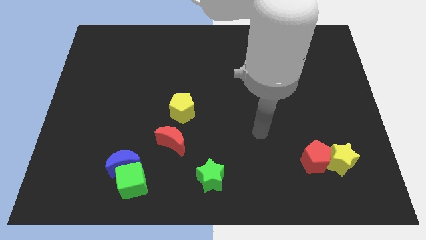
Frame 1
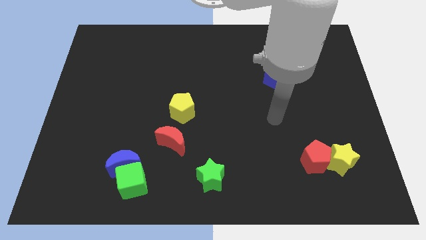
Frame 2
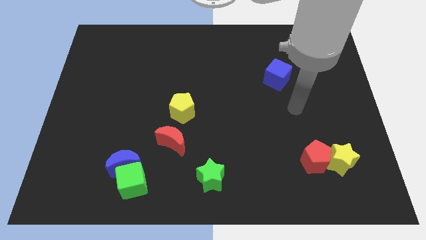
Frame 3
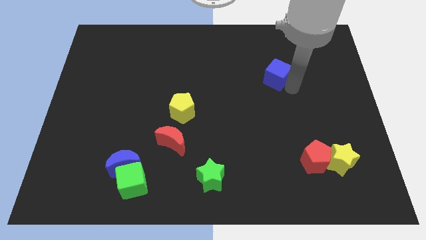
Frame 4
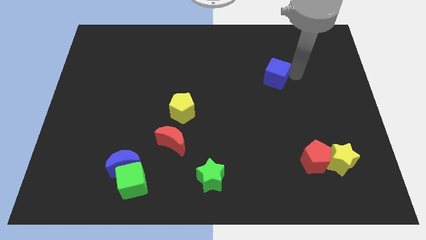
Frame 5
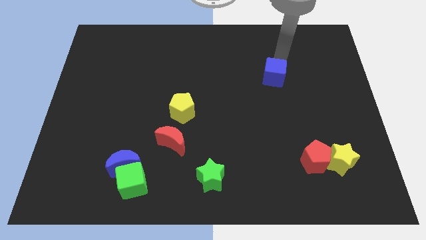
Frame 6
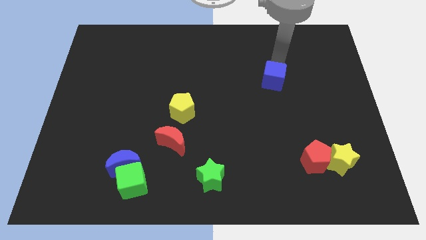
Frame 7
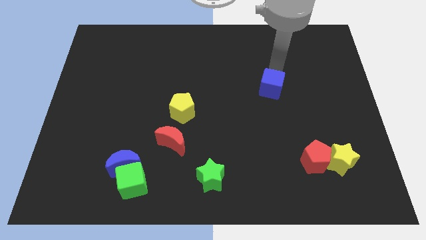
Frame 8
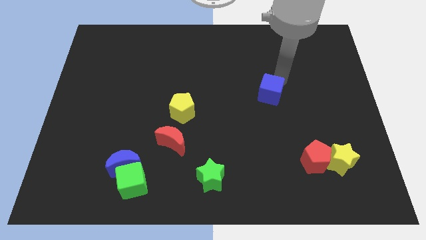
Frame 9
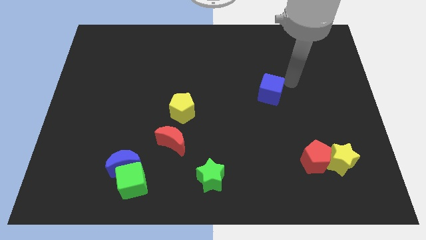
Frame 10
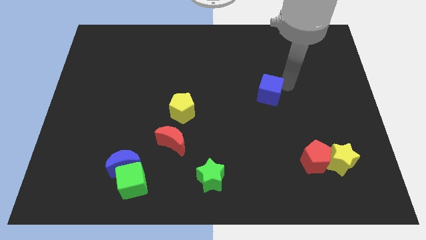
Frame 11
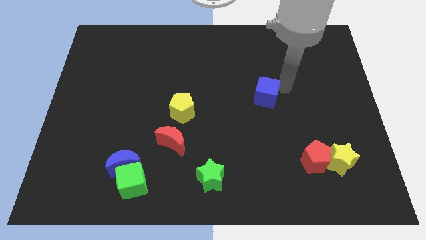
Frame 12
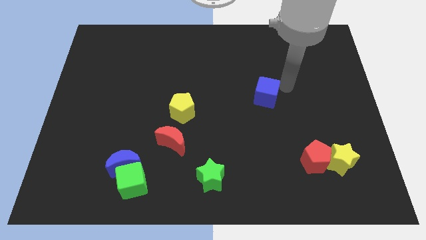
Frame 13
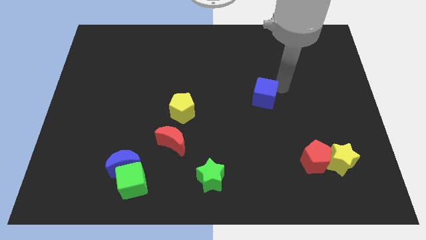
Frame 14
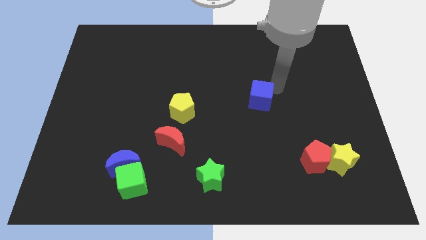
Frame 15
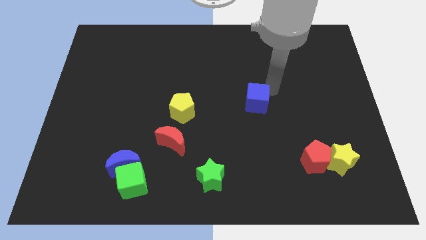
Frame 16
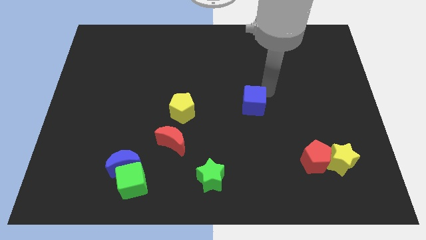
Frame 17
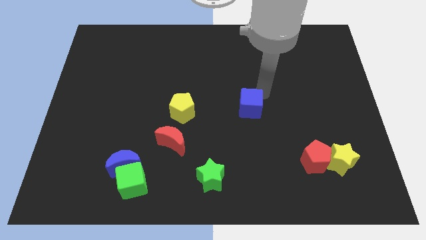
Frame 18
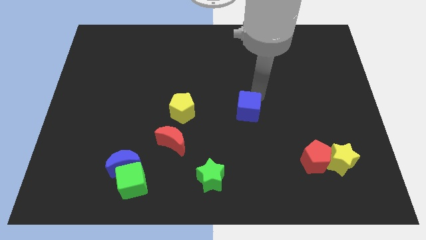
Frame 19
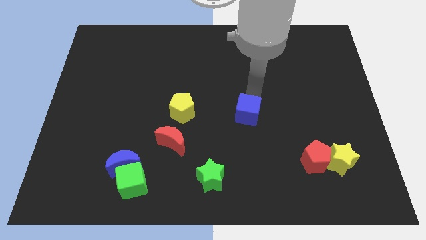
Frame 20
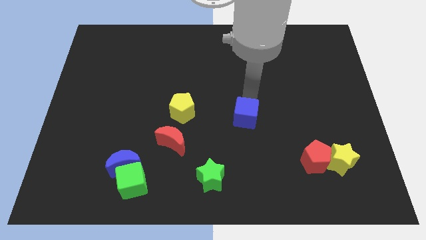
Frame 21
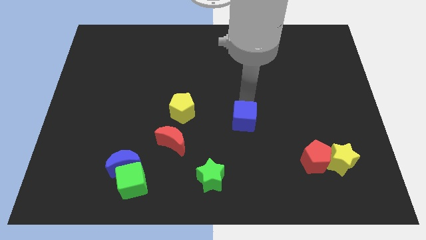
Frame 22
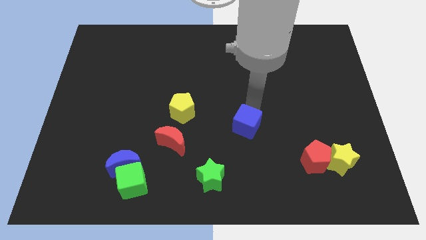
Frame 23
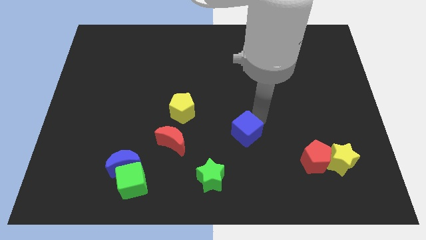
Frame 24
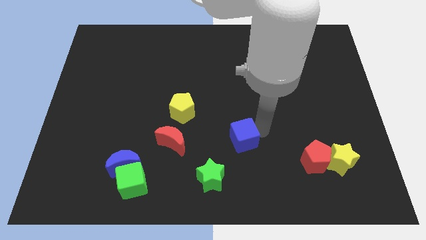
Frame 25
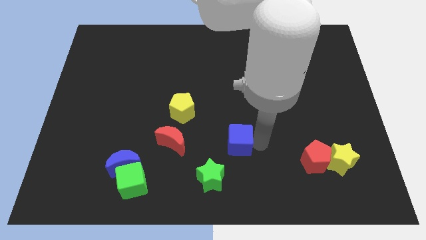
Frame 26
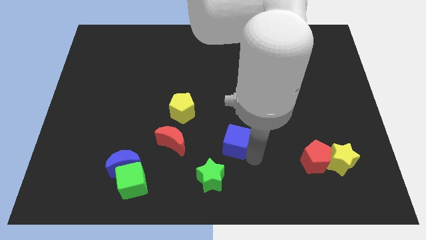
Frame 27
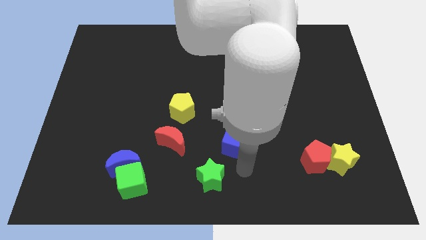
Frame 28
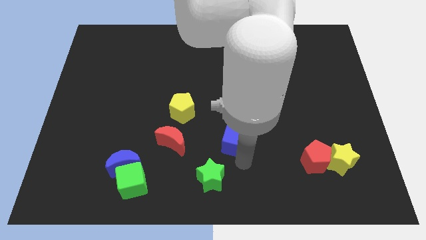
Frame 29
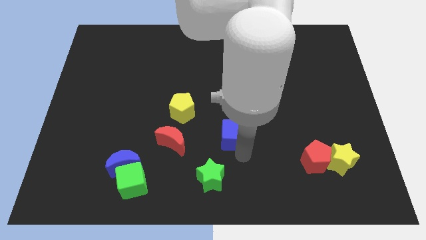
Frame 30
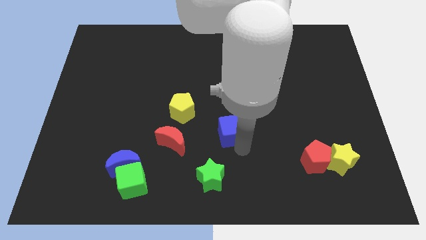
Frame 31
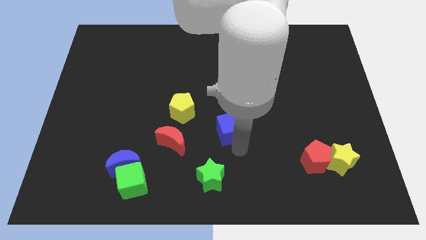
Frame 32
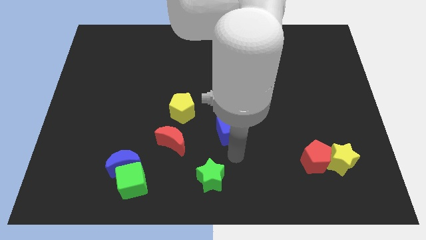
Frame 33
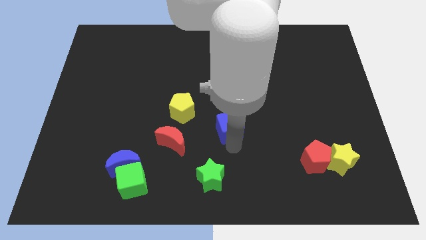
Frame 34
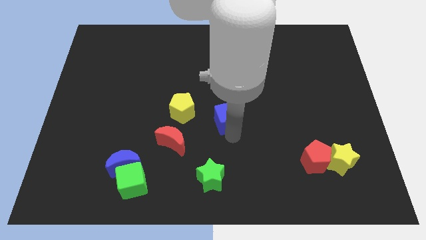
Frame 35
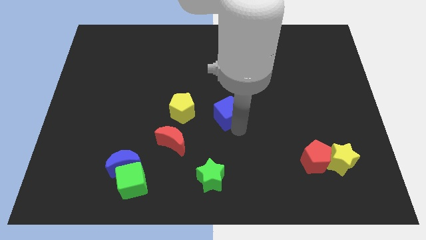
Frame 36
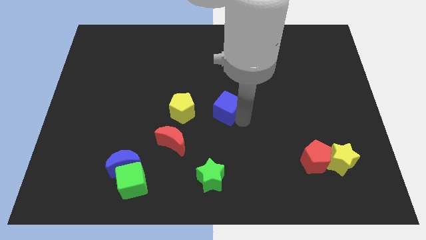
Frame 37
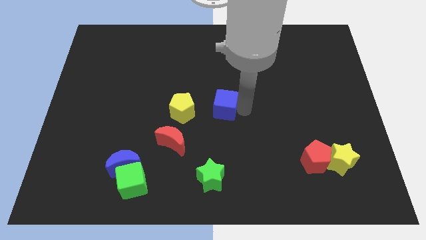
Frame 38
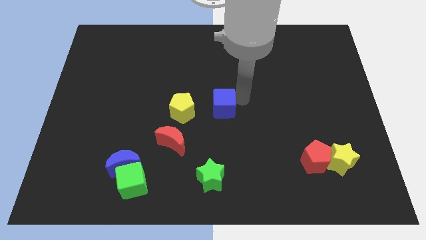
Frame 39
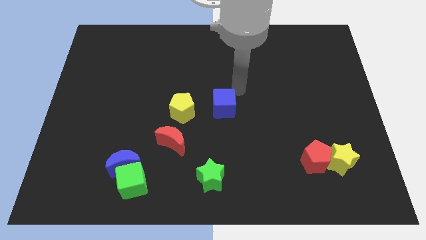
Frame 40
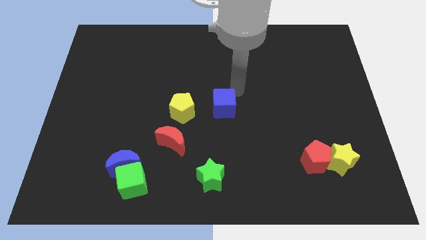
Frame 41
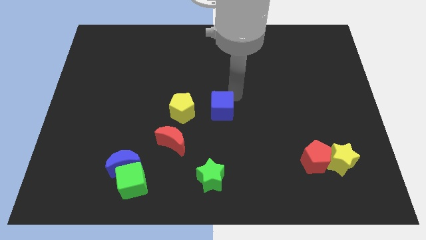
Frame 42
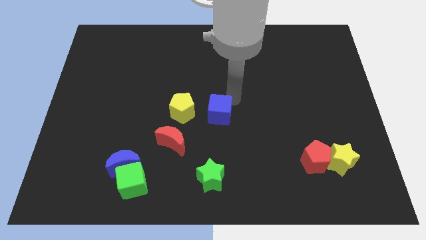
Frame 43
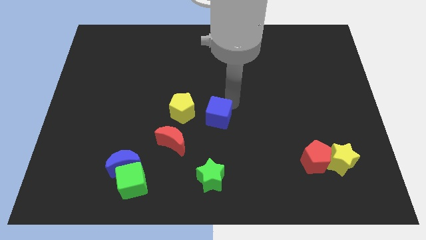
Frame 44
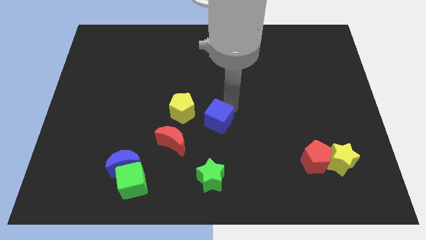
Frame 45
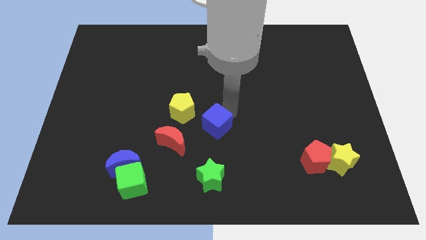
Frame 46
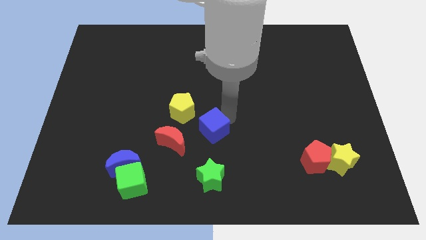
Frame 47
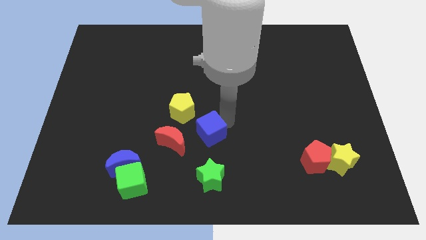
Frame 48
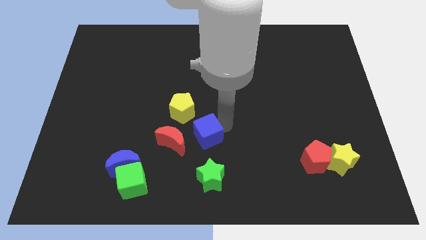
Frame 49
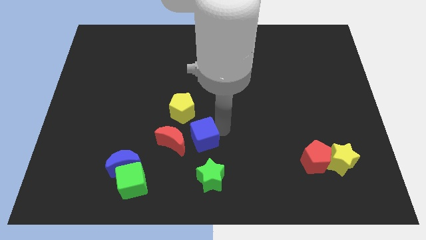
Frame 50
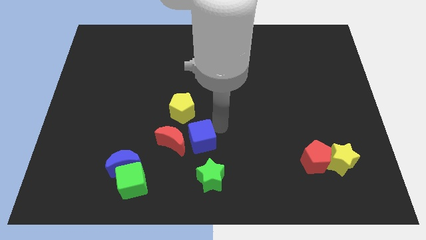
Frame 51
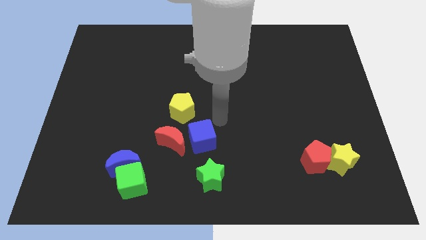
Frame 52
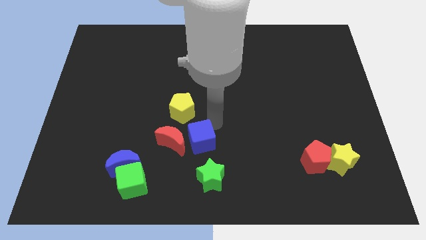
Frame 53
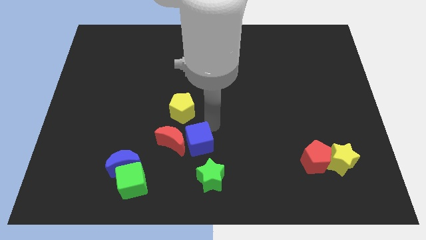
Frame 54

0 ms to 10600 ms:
slide the blue cube to the top left of the green star

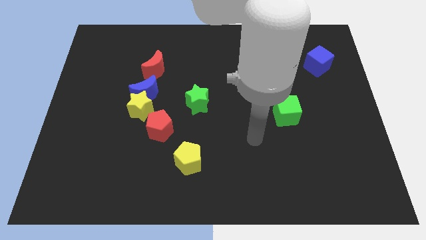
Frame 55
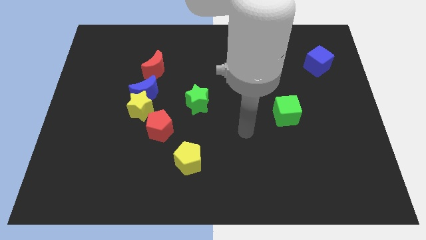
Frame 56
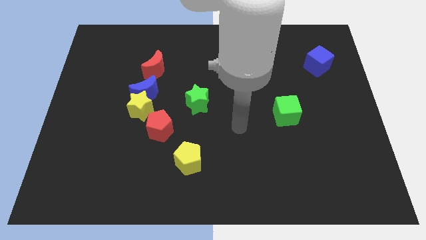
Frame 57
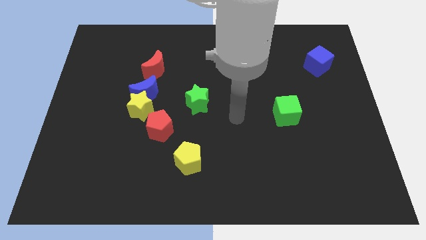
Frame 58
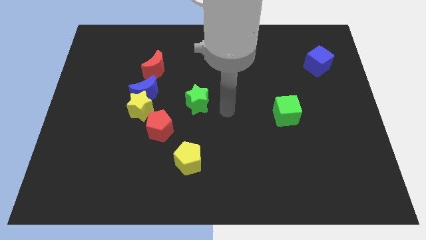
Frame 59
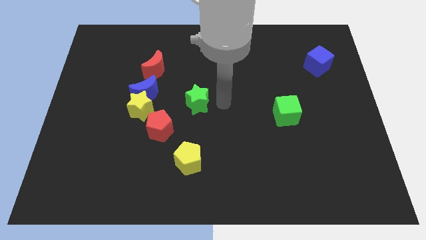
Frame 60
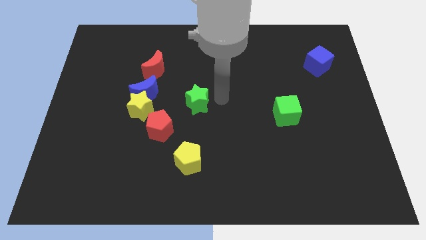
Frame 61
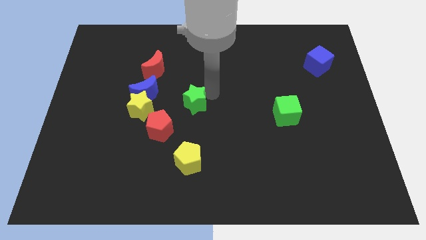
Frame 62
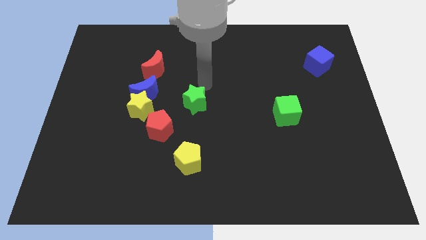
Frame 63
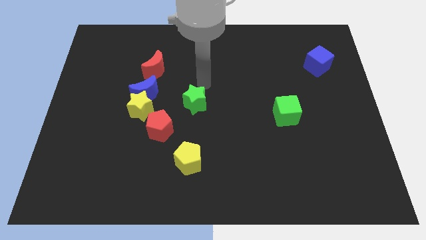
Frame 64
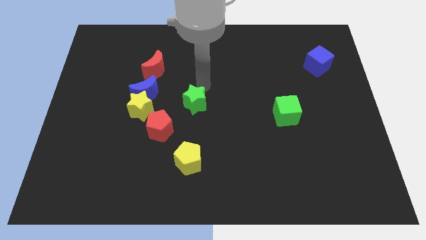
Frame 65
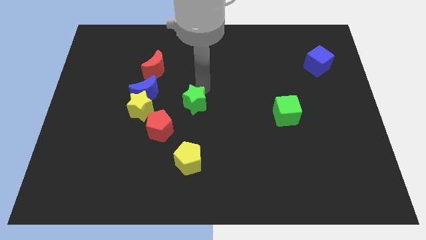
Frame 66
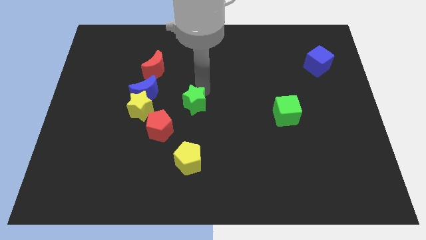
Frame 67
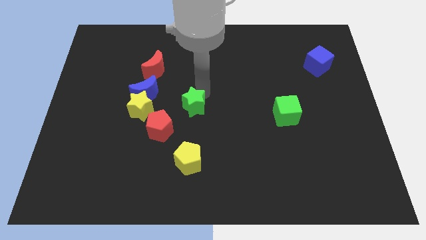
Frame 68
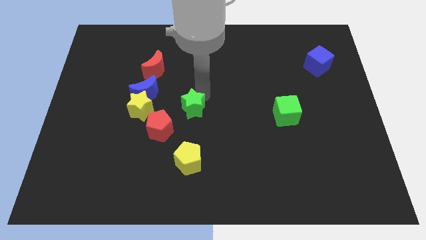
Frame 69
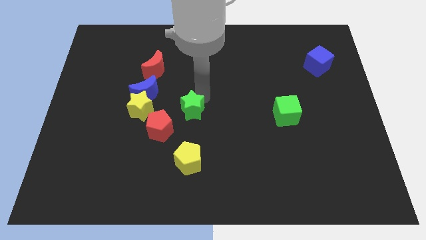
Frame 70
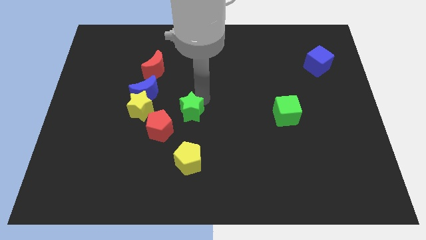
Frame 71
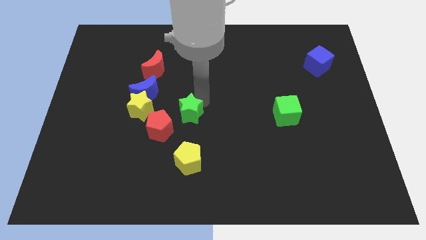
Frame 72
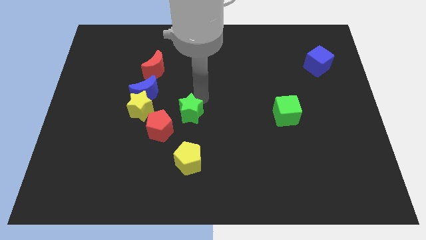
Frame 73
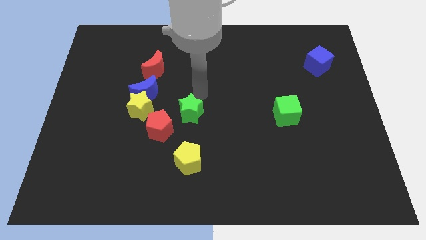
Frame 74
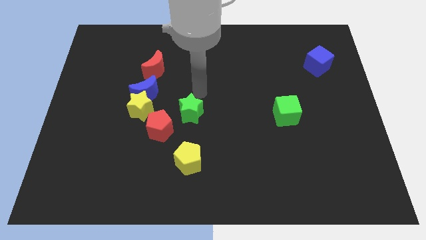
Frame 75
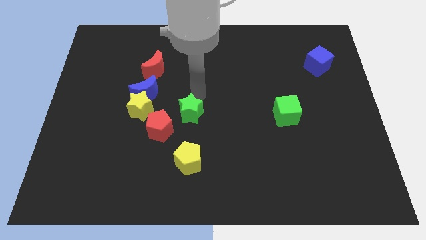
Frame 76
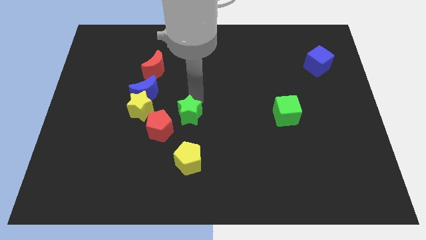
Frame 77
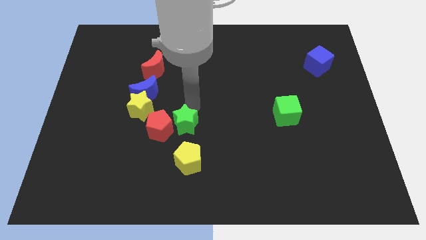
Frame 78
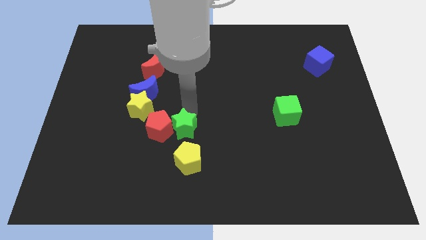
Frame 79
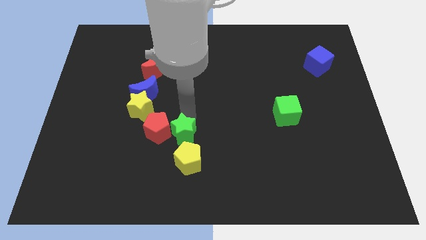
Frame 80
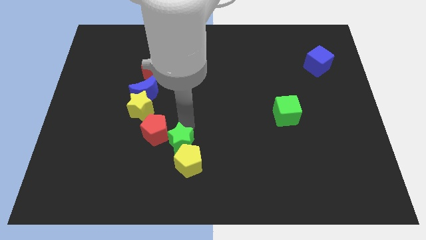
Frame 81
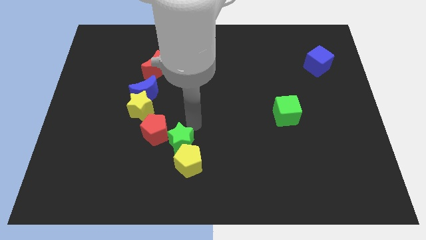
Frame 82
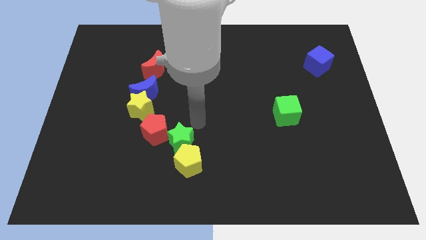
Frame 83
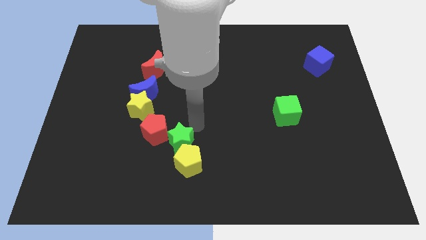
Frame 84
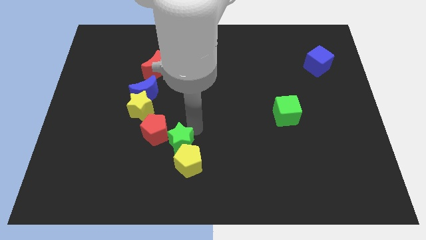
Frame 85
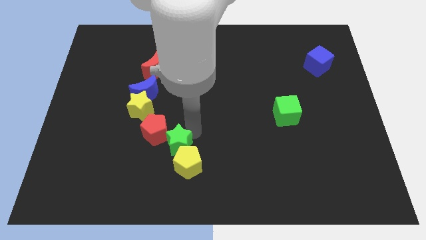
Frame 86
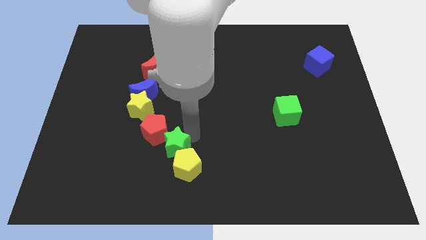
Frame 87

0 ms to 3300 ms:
move the green star to the bottom of the red pentagon

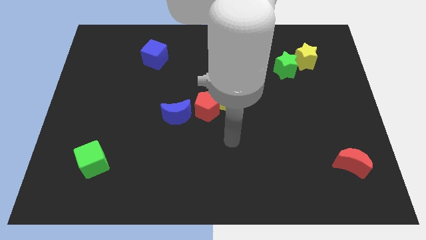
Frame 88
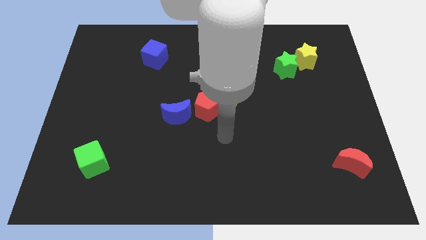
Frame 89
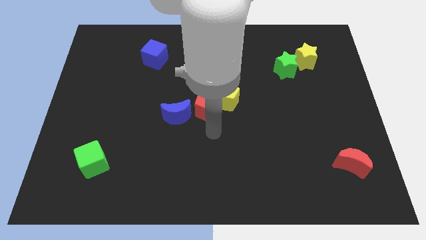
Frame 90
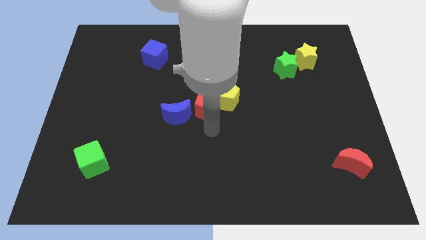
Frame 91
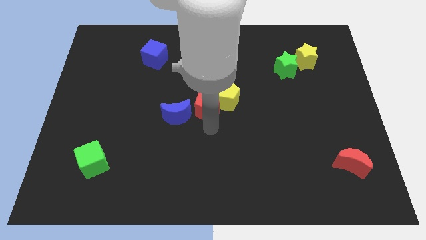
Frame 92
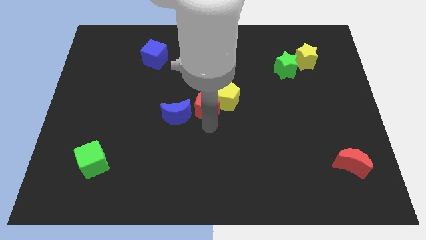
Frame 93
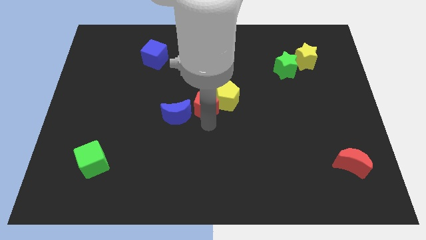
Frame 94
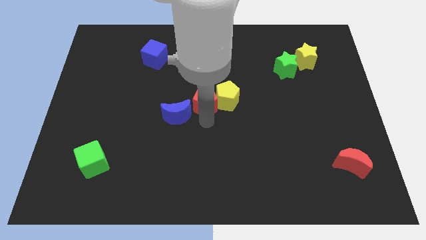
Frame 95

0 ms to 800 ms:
slide the red pentagon to the top left side of the yellow pentagon
